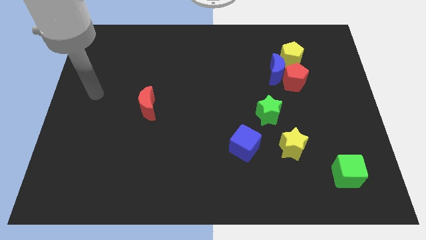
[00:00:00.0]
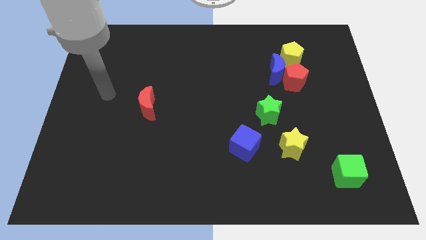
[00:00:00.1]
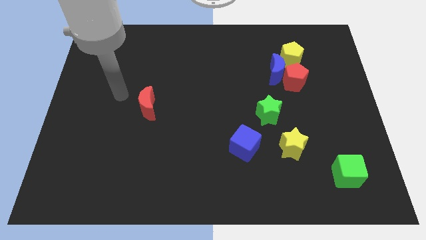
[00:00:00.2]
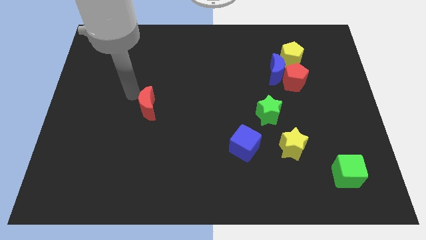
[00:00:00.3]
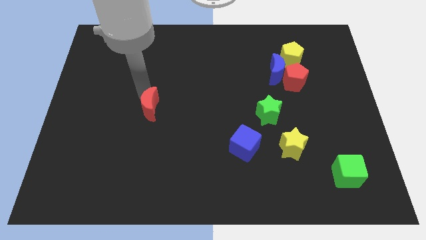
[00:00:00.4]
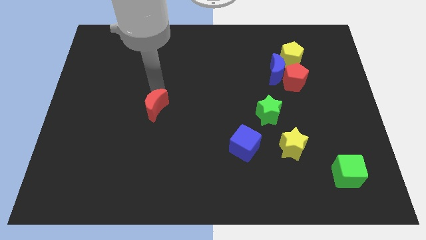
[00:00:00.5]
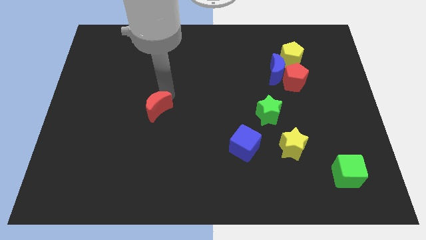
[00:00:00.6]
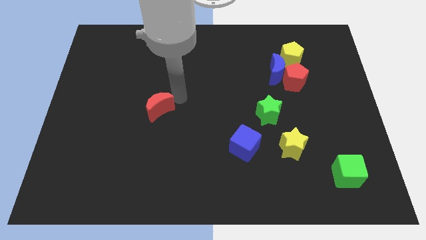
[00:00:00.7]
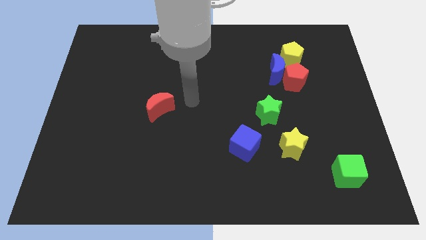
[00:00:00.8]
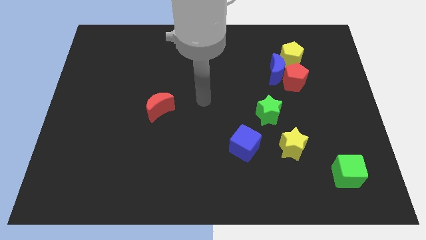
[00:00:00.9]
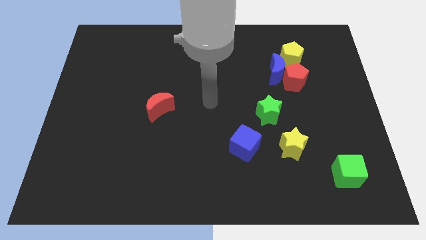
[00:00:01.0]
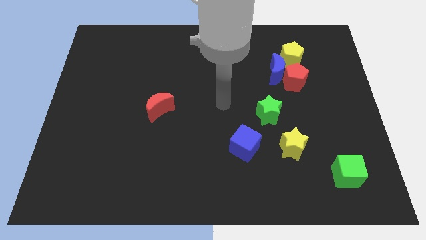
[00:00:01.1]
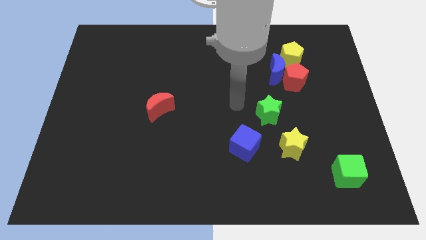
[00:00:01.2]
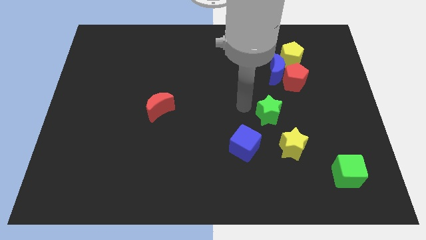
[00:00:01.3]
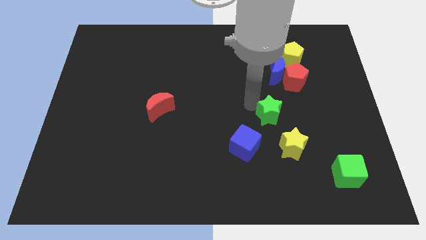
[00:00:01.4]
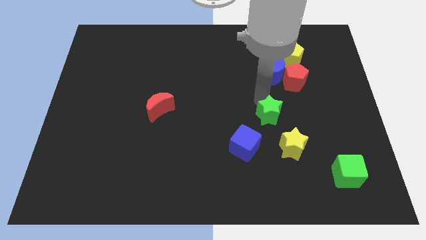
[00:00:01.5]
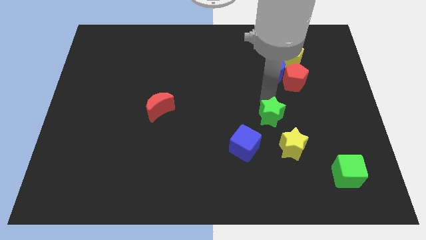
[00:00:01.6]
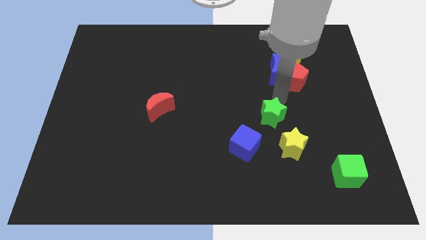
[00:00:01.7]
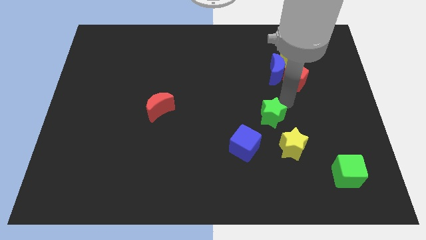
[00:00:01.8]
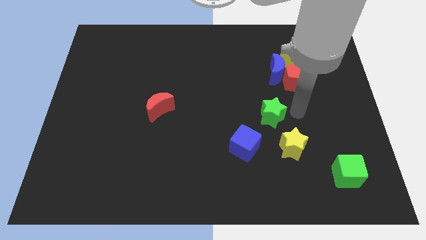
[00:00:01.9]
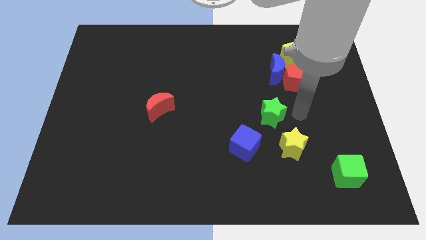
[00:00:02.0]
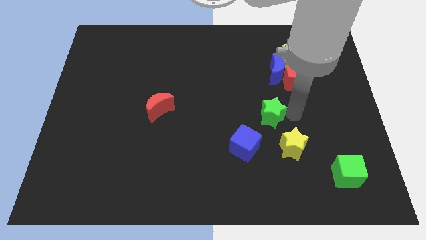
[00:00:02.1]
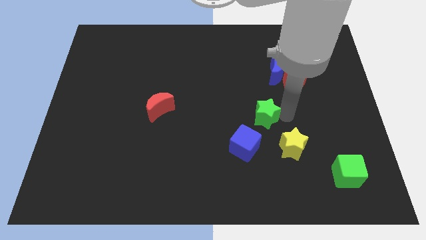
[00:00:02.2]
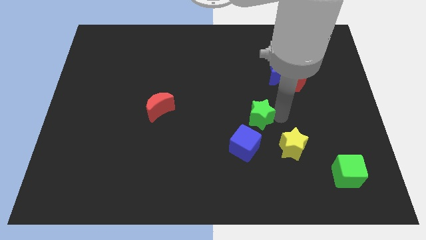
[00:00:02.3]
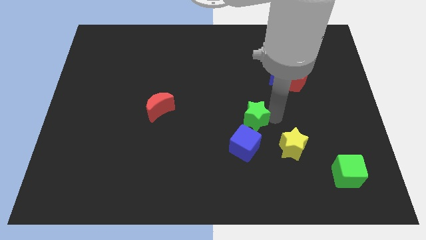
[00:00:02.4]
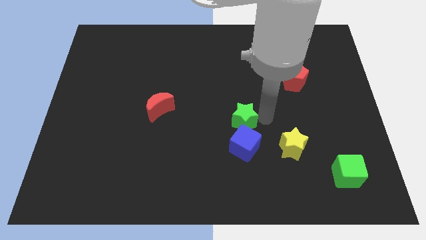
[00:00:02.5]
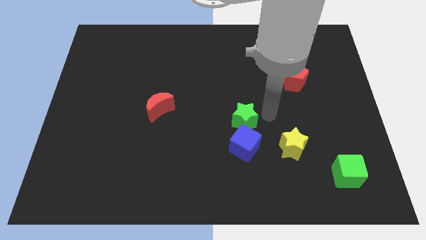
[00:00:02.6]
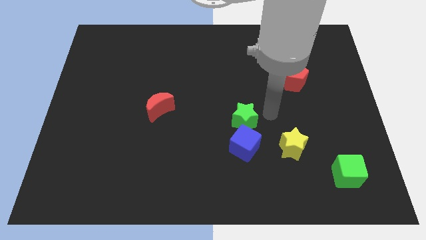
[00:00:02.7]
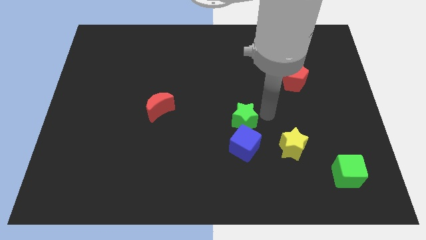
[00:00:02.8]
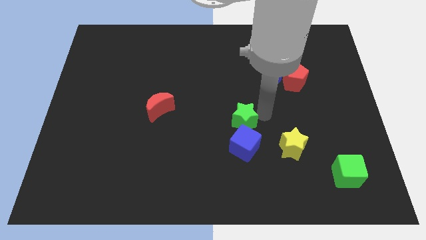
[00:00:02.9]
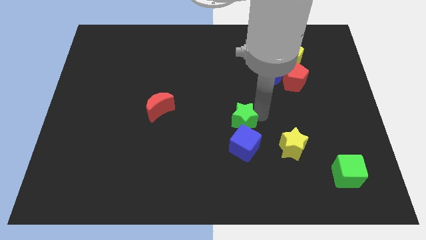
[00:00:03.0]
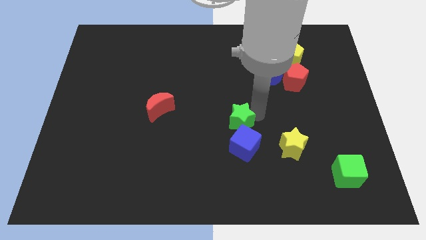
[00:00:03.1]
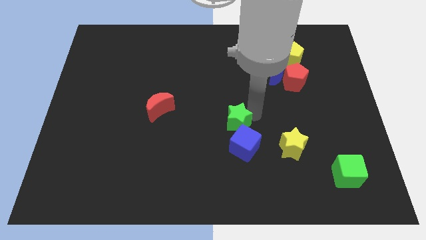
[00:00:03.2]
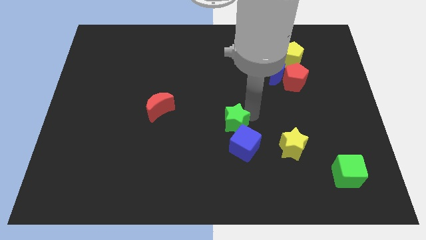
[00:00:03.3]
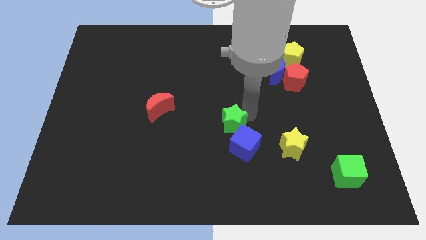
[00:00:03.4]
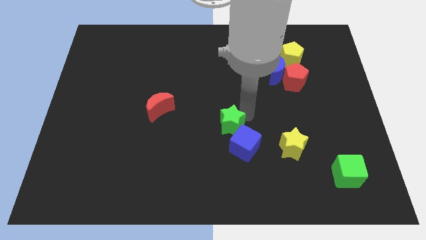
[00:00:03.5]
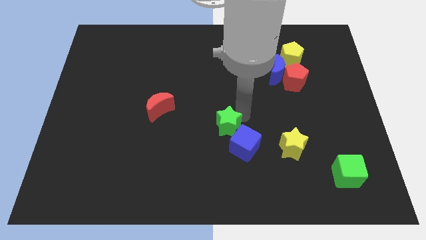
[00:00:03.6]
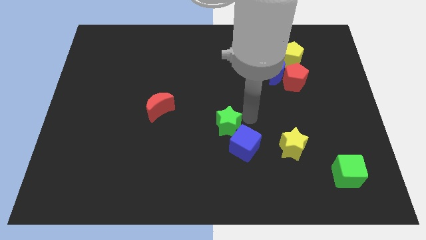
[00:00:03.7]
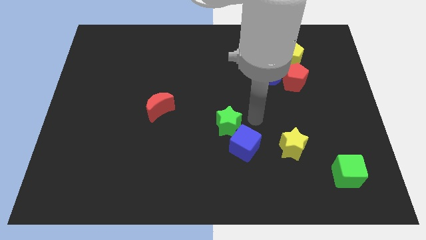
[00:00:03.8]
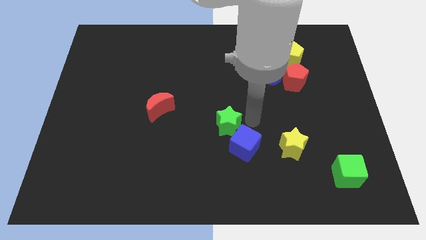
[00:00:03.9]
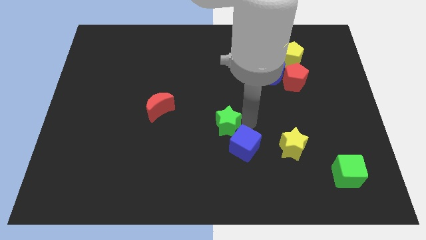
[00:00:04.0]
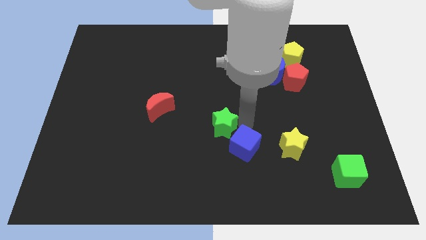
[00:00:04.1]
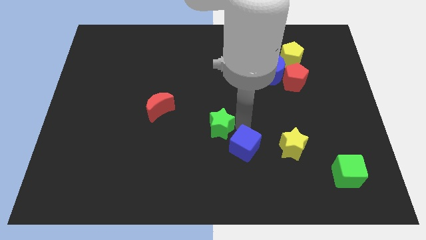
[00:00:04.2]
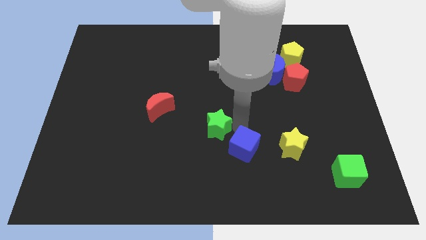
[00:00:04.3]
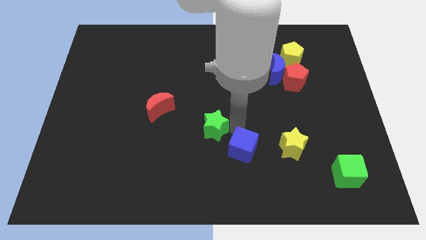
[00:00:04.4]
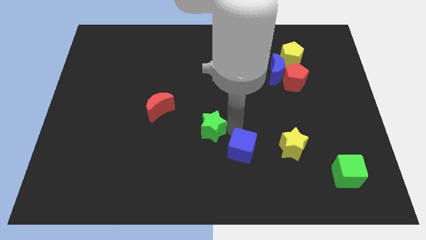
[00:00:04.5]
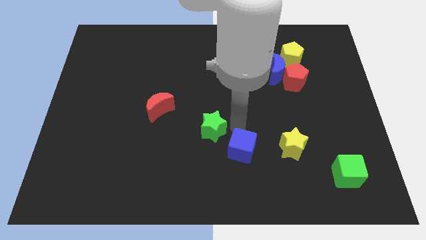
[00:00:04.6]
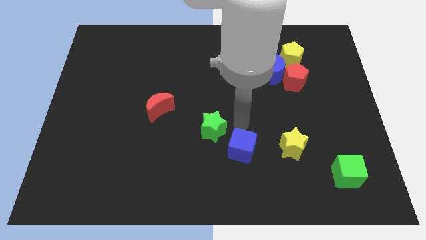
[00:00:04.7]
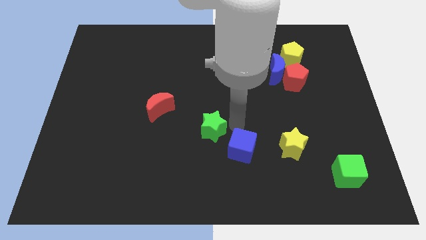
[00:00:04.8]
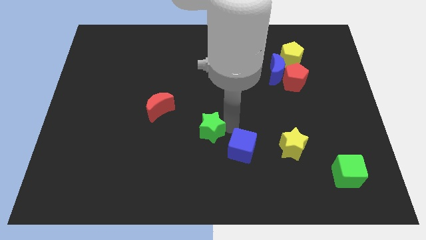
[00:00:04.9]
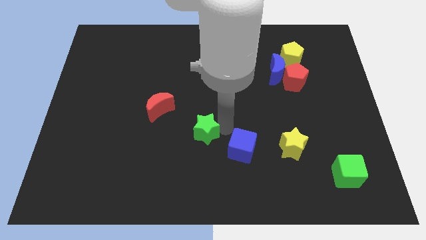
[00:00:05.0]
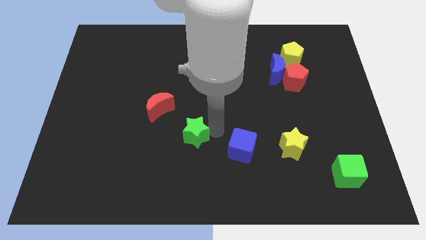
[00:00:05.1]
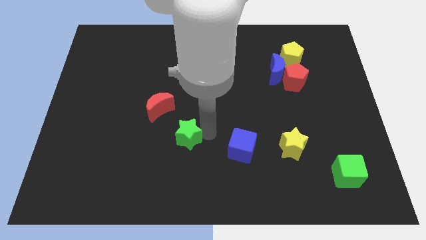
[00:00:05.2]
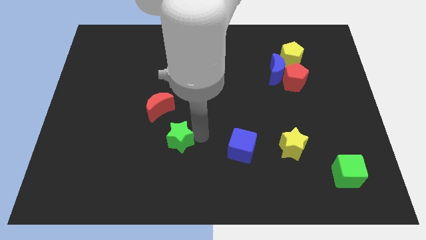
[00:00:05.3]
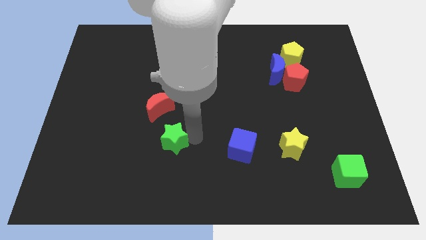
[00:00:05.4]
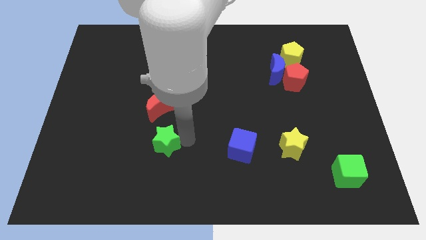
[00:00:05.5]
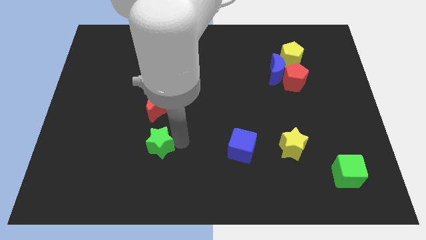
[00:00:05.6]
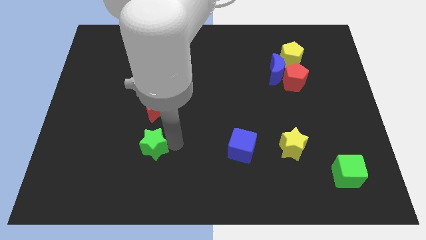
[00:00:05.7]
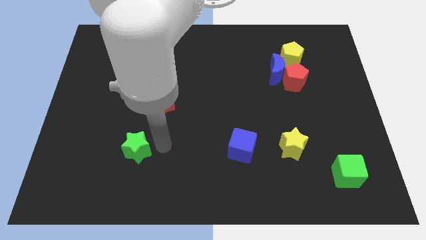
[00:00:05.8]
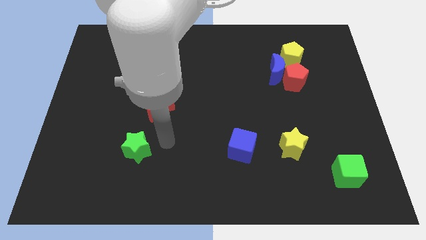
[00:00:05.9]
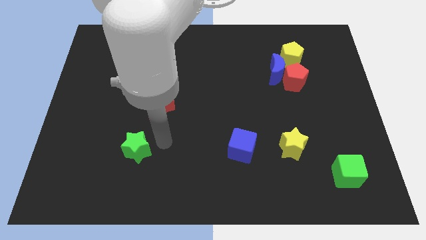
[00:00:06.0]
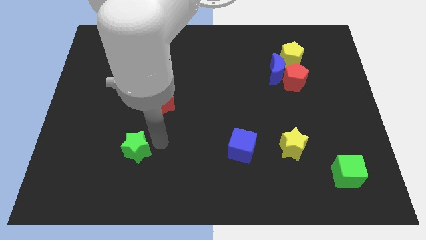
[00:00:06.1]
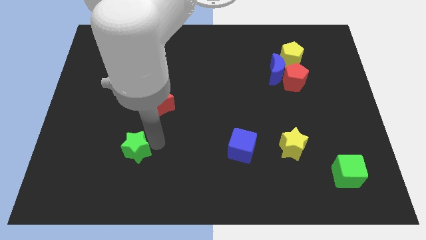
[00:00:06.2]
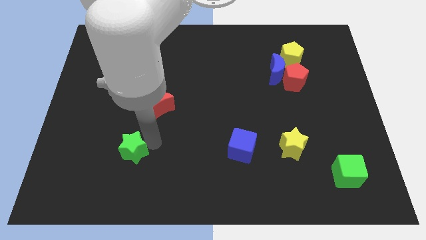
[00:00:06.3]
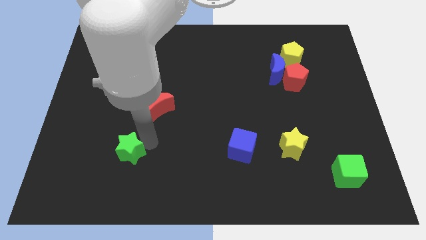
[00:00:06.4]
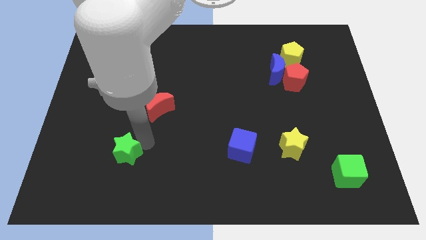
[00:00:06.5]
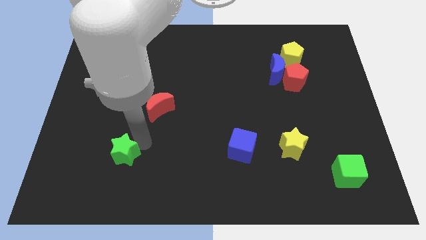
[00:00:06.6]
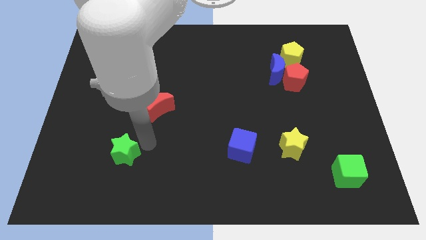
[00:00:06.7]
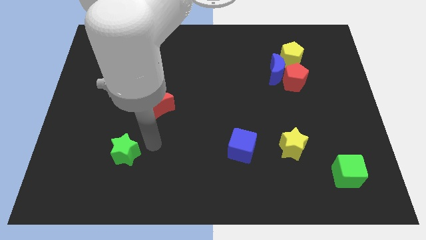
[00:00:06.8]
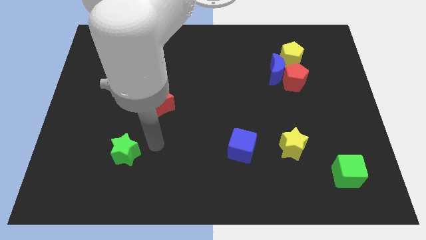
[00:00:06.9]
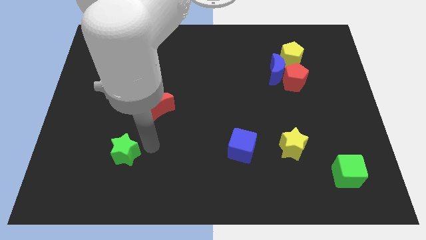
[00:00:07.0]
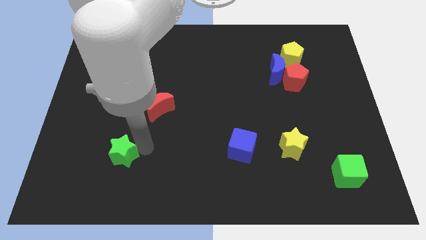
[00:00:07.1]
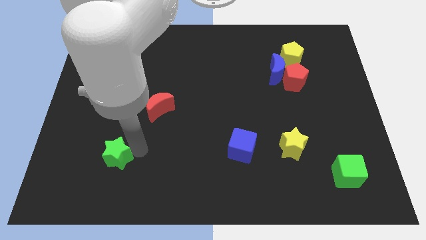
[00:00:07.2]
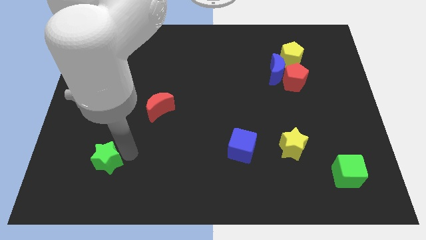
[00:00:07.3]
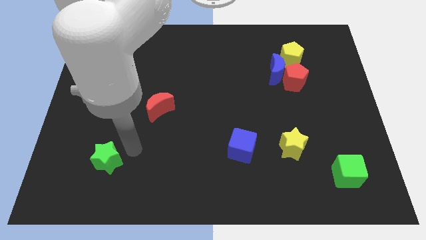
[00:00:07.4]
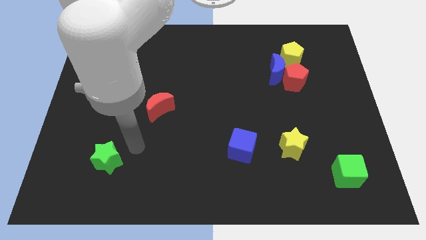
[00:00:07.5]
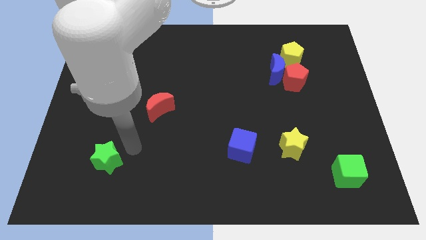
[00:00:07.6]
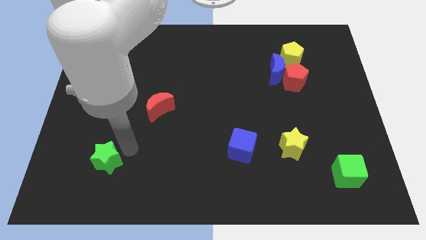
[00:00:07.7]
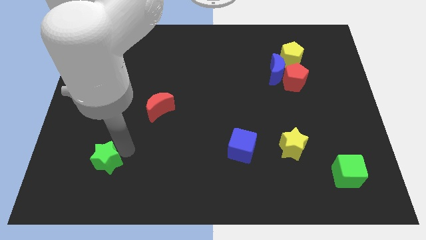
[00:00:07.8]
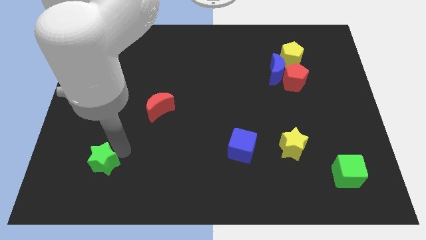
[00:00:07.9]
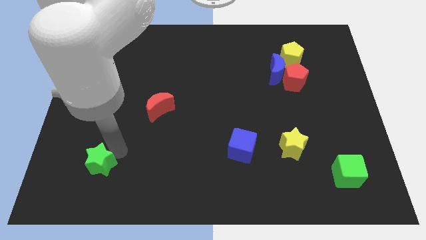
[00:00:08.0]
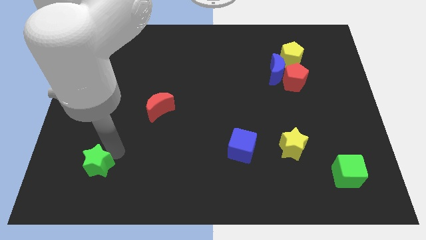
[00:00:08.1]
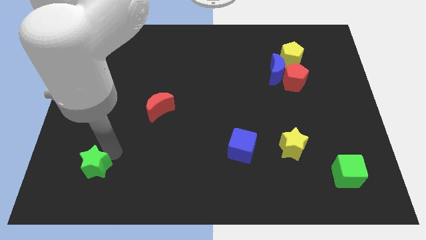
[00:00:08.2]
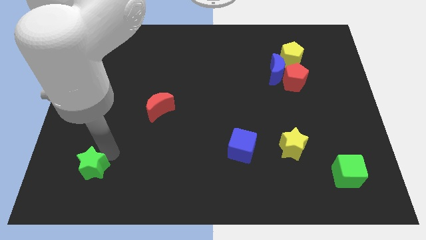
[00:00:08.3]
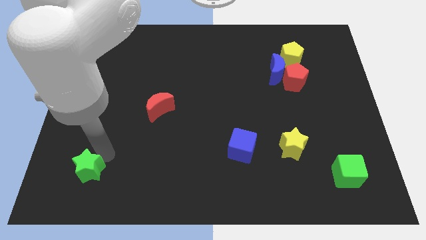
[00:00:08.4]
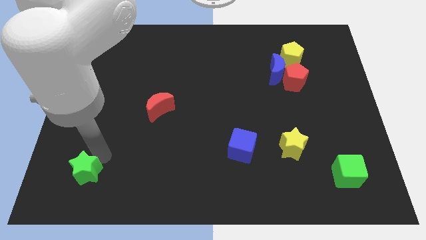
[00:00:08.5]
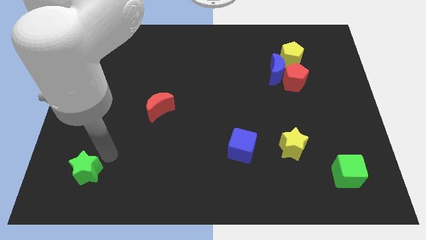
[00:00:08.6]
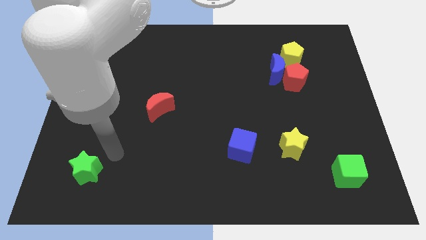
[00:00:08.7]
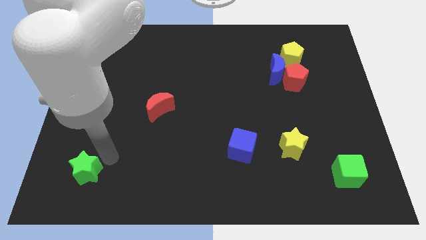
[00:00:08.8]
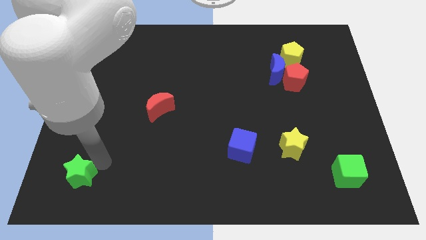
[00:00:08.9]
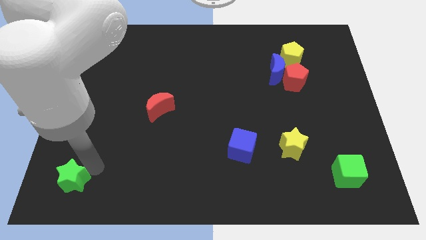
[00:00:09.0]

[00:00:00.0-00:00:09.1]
slide the green star to the bottom left corner
